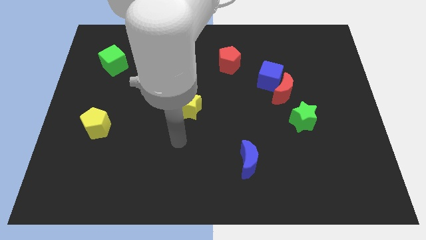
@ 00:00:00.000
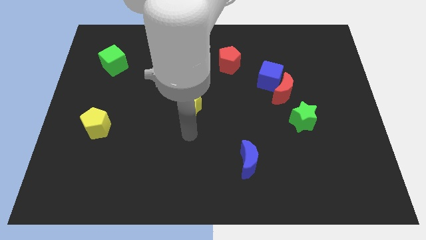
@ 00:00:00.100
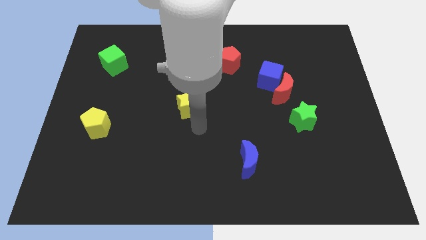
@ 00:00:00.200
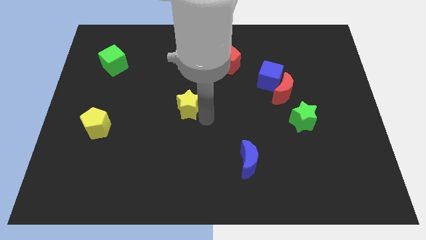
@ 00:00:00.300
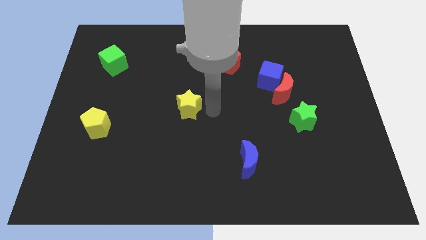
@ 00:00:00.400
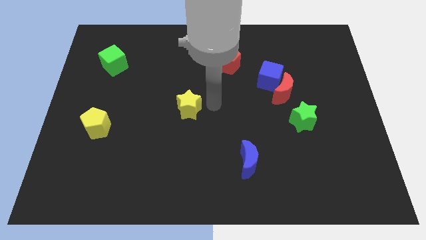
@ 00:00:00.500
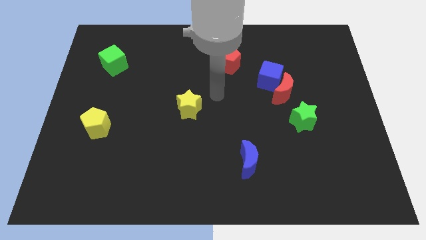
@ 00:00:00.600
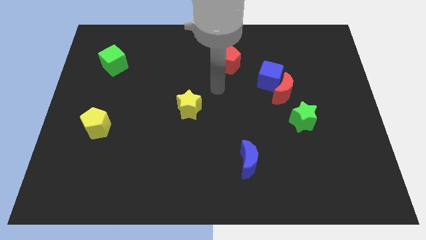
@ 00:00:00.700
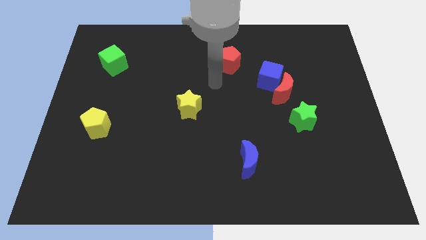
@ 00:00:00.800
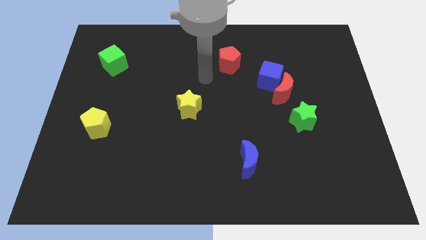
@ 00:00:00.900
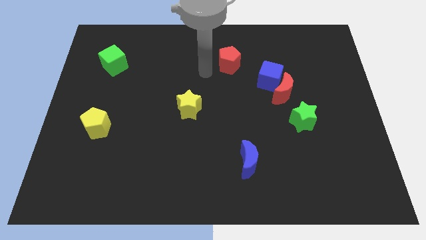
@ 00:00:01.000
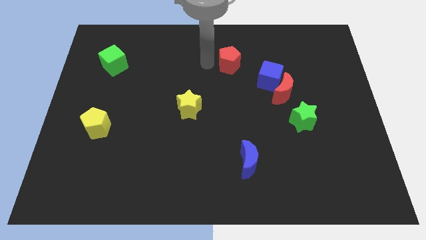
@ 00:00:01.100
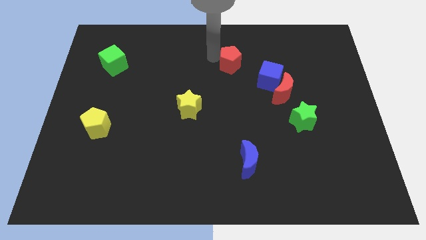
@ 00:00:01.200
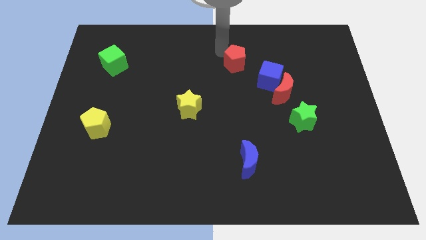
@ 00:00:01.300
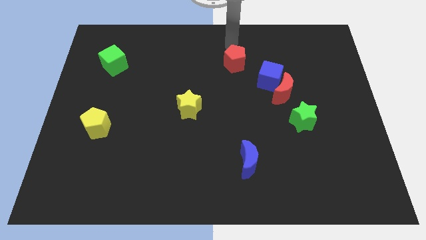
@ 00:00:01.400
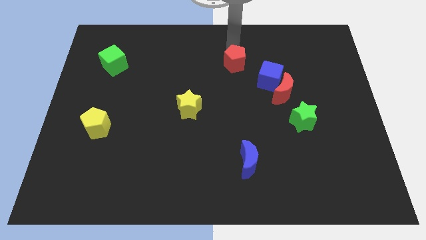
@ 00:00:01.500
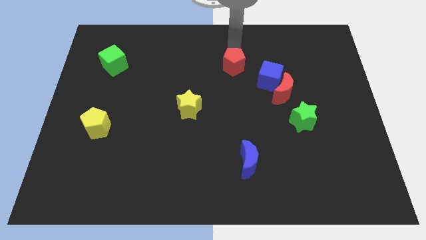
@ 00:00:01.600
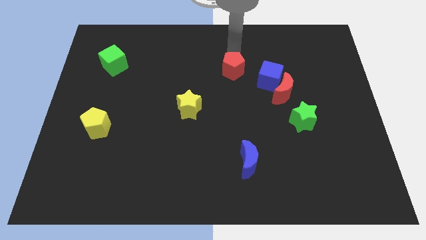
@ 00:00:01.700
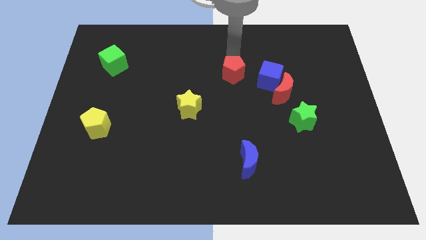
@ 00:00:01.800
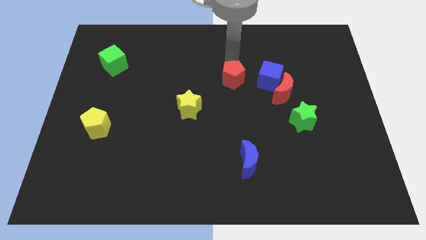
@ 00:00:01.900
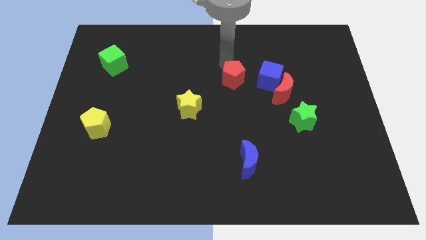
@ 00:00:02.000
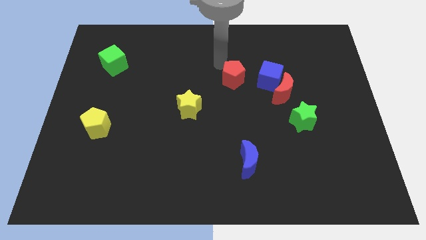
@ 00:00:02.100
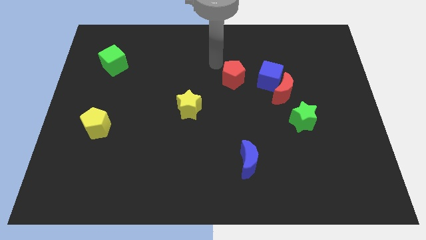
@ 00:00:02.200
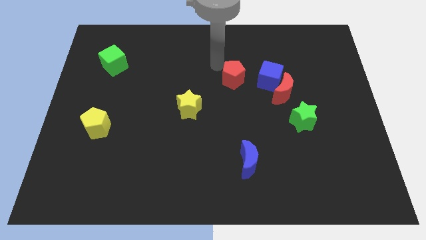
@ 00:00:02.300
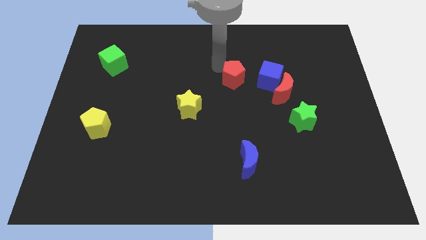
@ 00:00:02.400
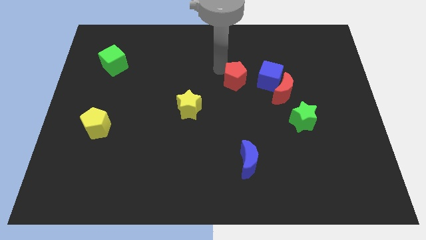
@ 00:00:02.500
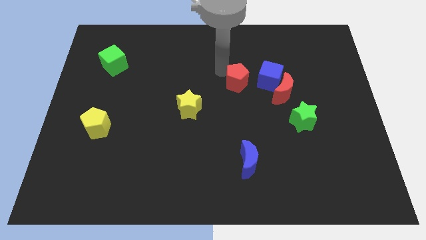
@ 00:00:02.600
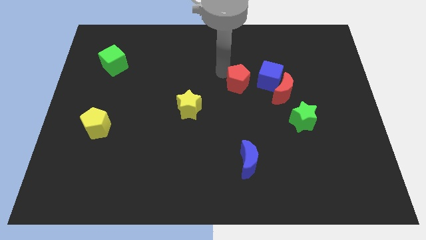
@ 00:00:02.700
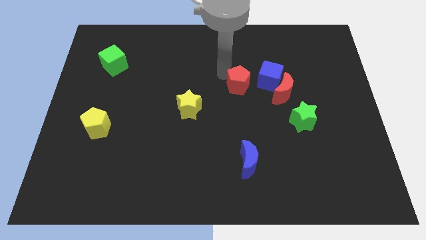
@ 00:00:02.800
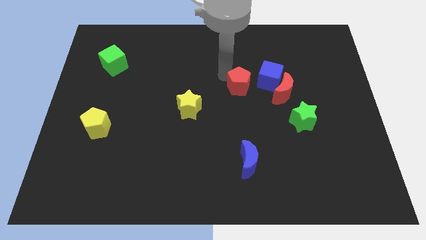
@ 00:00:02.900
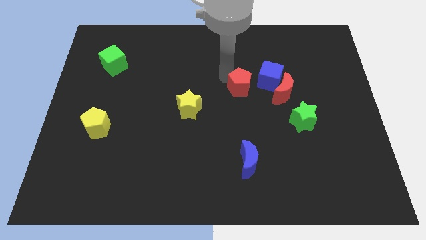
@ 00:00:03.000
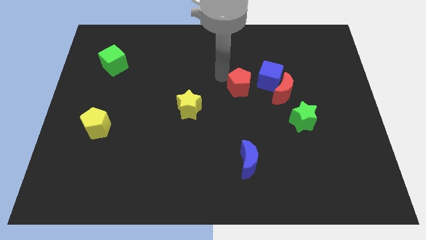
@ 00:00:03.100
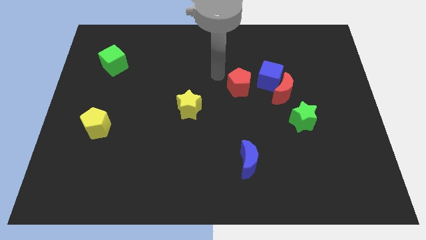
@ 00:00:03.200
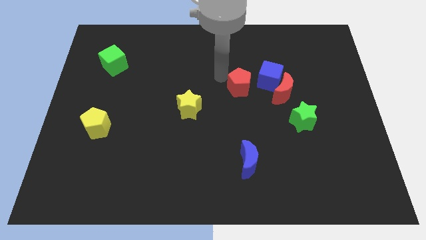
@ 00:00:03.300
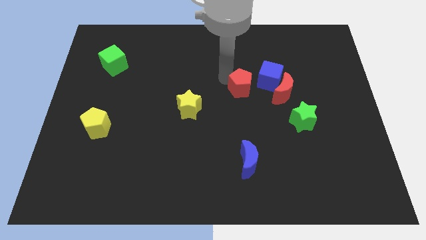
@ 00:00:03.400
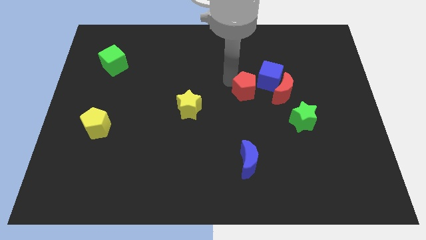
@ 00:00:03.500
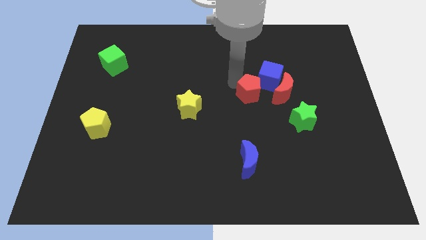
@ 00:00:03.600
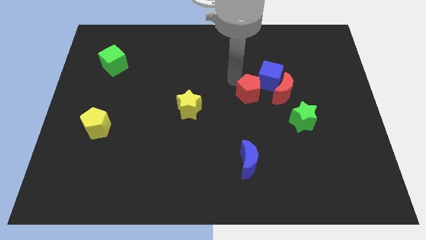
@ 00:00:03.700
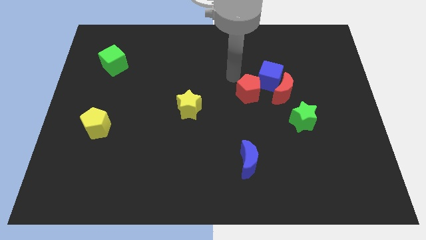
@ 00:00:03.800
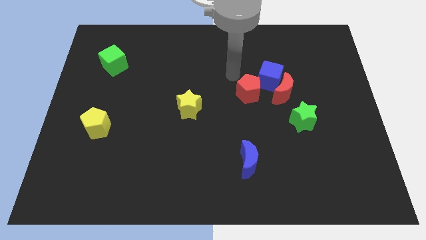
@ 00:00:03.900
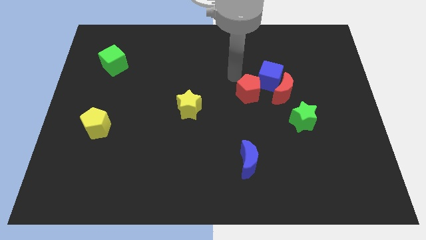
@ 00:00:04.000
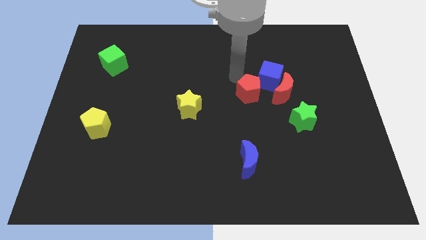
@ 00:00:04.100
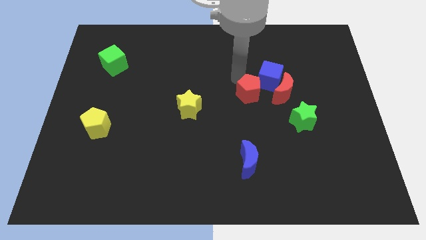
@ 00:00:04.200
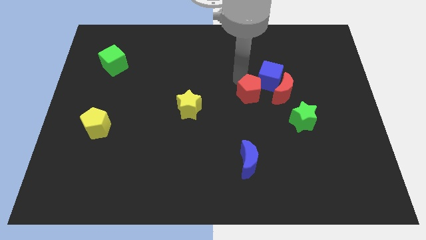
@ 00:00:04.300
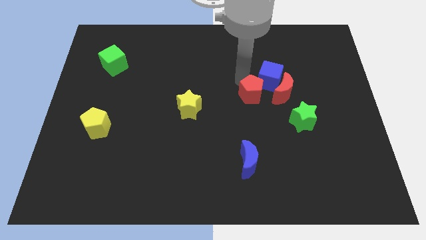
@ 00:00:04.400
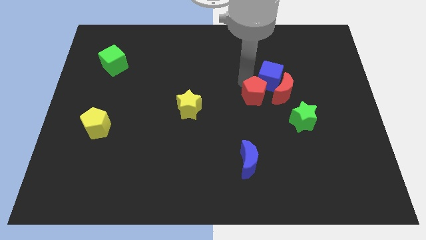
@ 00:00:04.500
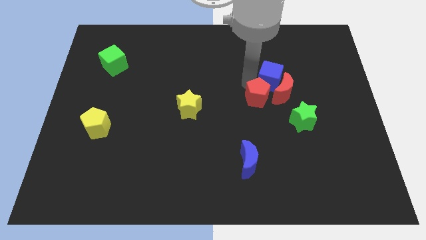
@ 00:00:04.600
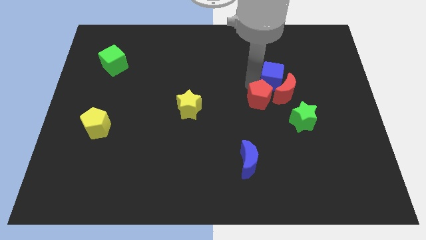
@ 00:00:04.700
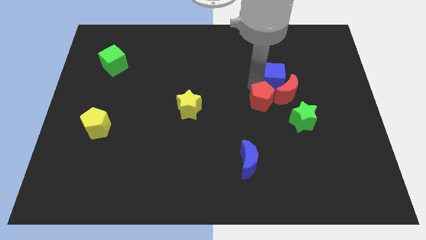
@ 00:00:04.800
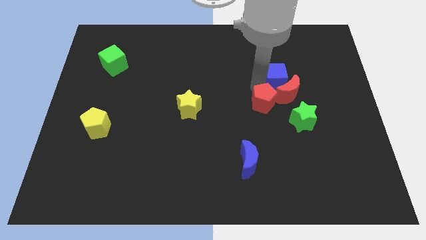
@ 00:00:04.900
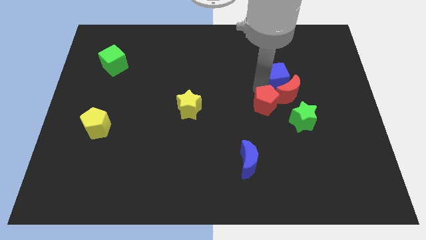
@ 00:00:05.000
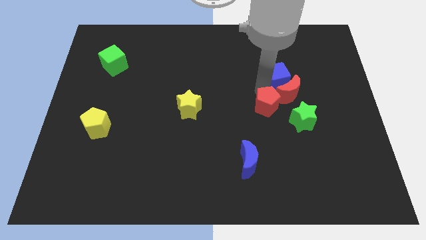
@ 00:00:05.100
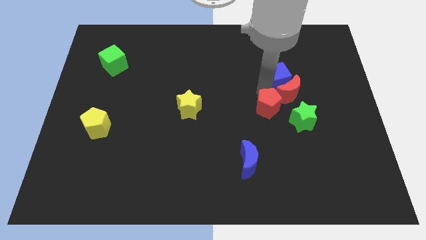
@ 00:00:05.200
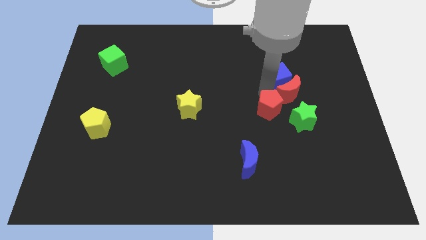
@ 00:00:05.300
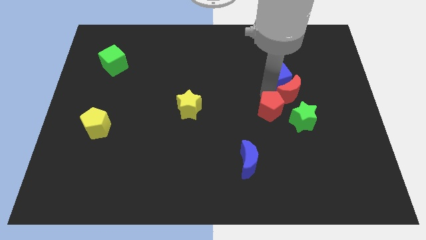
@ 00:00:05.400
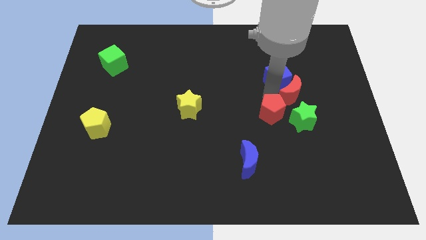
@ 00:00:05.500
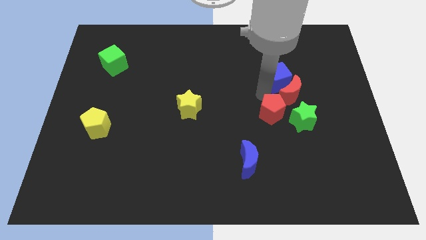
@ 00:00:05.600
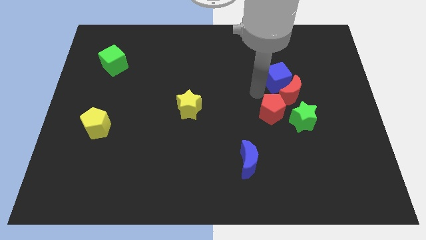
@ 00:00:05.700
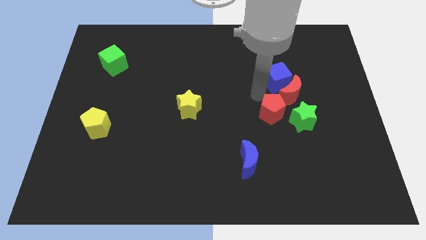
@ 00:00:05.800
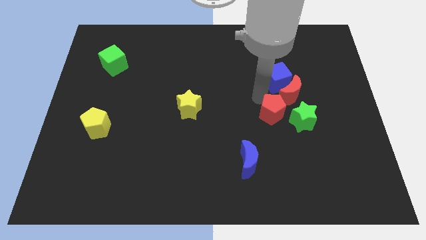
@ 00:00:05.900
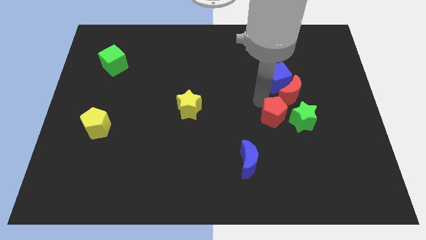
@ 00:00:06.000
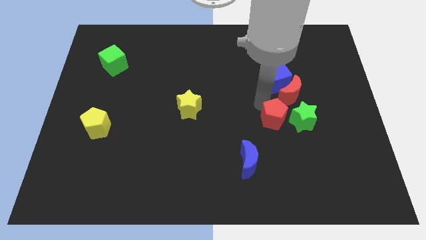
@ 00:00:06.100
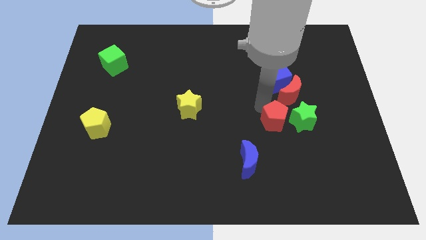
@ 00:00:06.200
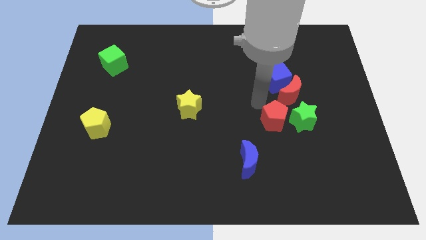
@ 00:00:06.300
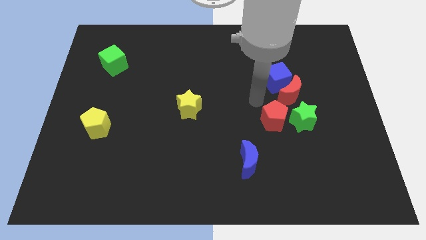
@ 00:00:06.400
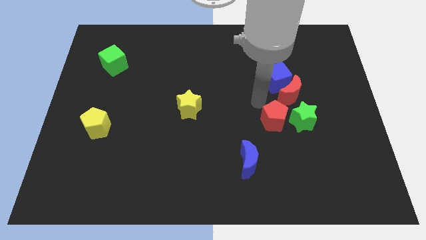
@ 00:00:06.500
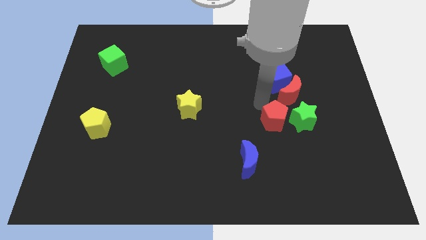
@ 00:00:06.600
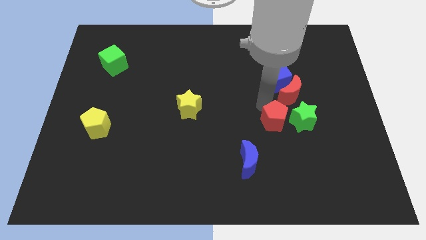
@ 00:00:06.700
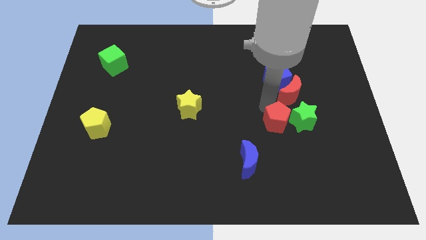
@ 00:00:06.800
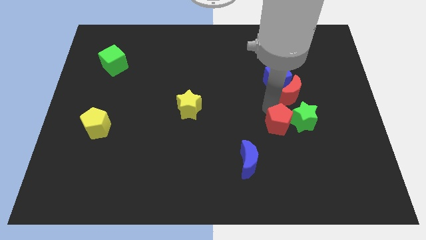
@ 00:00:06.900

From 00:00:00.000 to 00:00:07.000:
push the red pentagon downwards and to the right diagonally

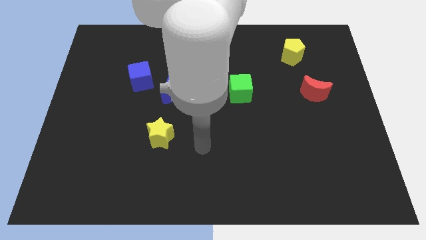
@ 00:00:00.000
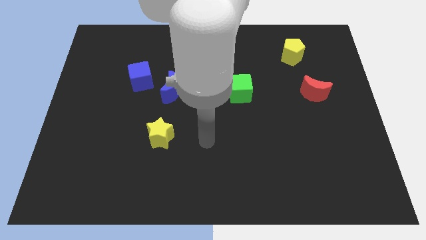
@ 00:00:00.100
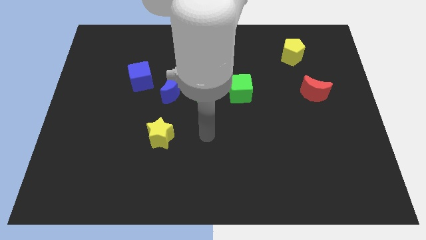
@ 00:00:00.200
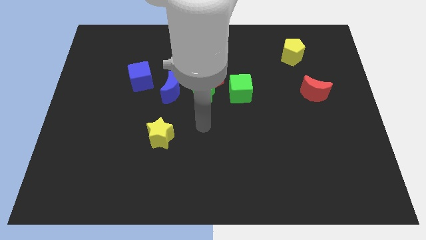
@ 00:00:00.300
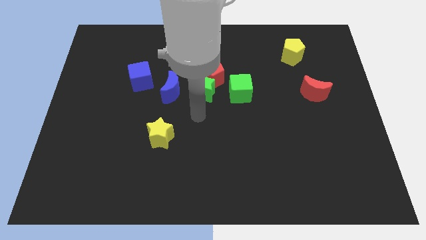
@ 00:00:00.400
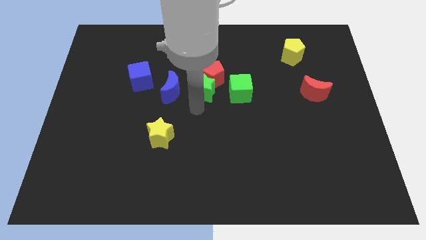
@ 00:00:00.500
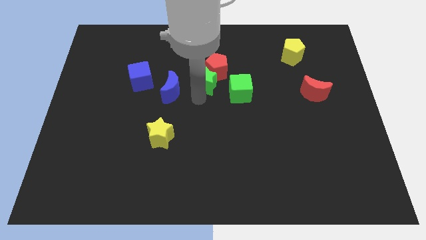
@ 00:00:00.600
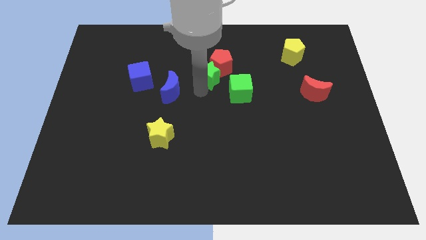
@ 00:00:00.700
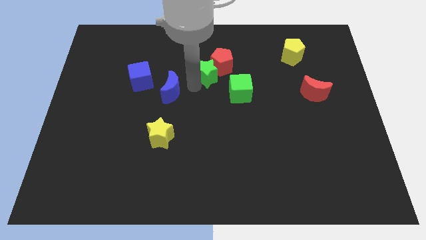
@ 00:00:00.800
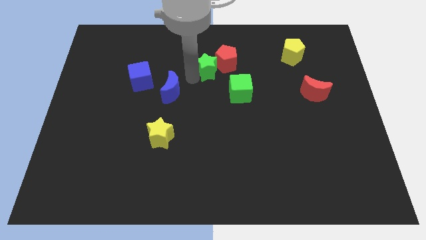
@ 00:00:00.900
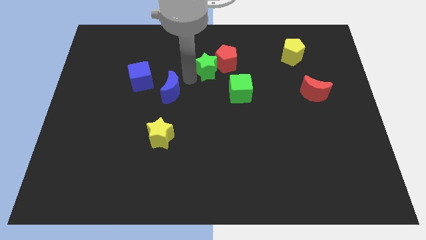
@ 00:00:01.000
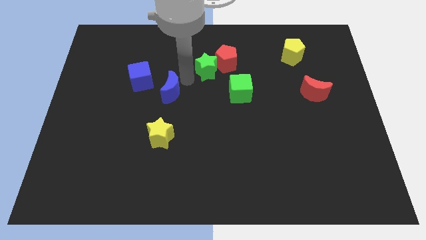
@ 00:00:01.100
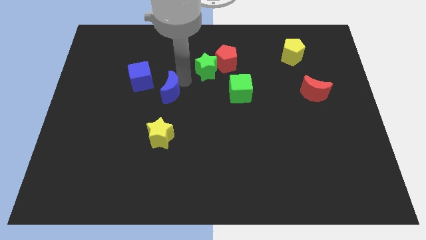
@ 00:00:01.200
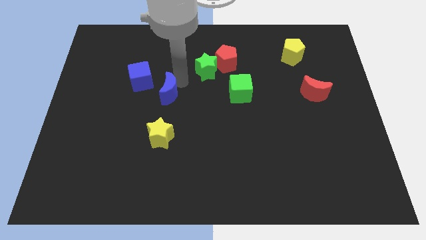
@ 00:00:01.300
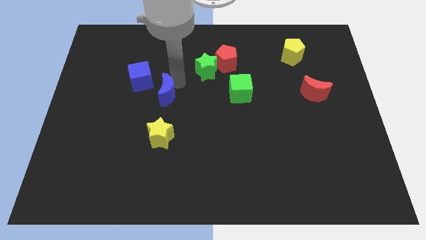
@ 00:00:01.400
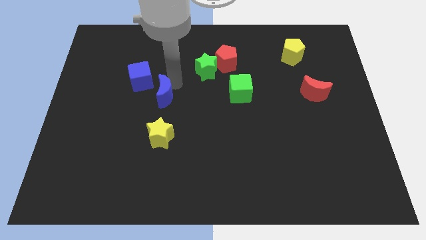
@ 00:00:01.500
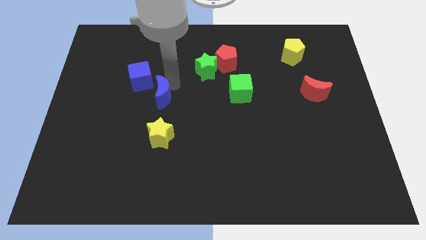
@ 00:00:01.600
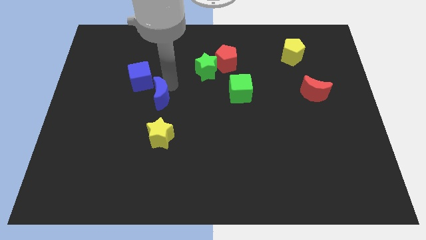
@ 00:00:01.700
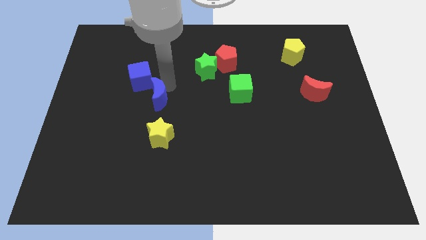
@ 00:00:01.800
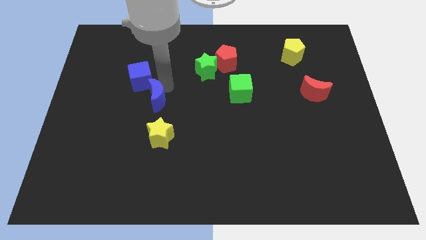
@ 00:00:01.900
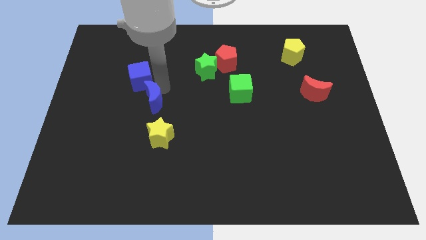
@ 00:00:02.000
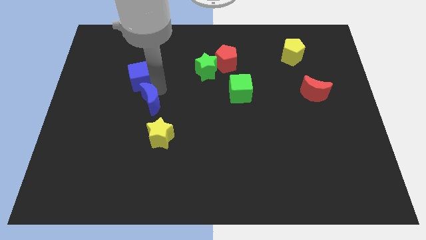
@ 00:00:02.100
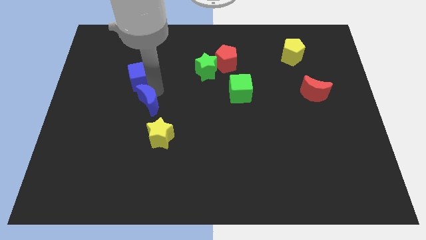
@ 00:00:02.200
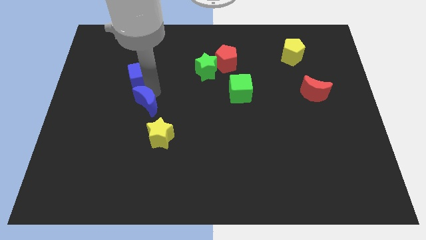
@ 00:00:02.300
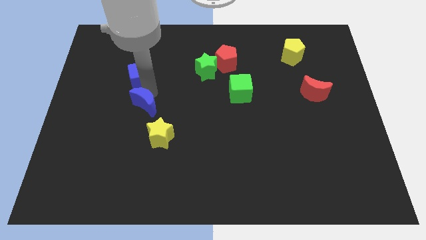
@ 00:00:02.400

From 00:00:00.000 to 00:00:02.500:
push the blue moon diagonally downwards and to the left somewhat
